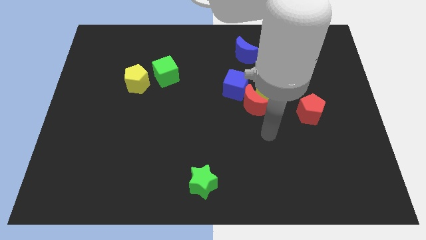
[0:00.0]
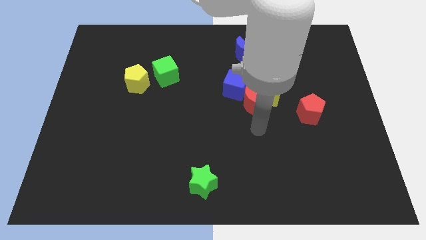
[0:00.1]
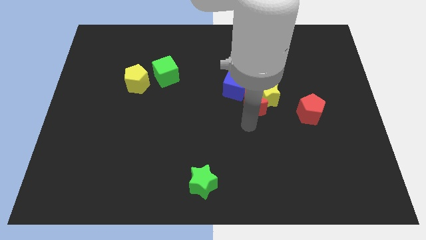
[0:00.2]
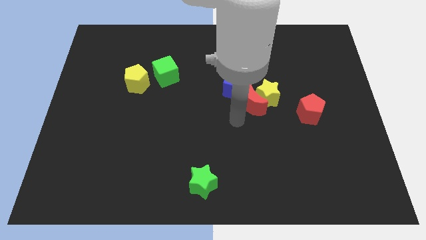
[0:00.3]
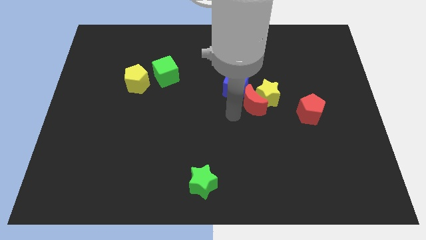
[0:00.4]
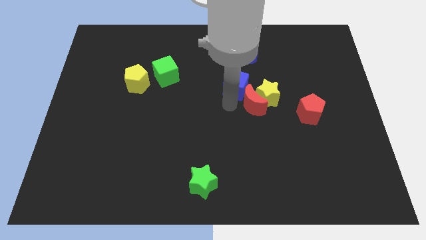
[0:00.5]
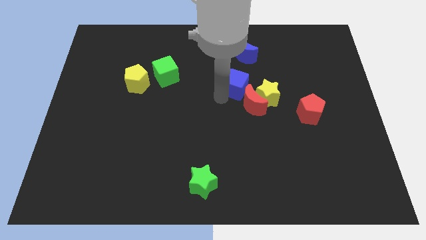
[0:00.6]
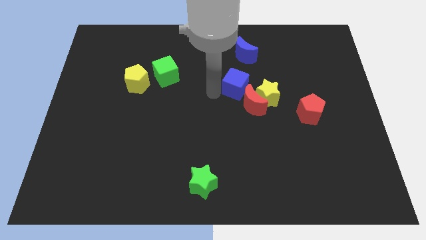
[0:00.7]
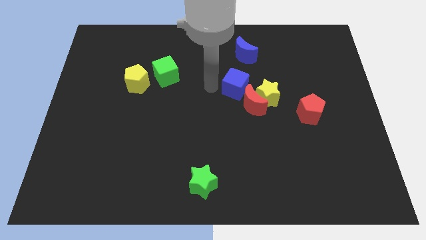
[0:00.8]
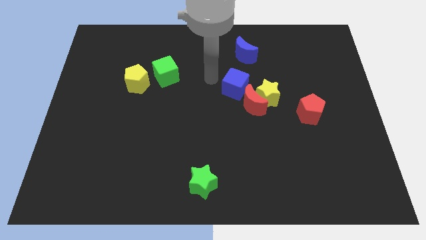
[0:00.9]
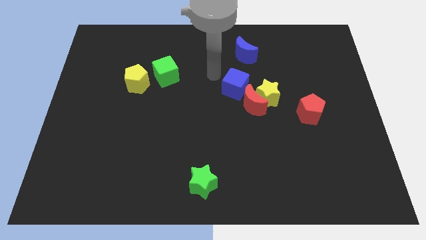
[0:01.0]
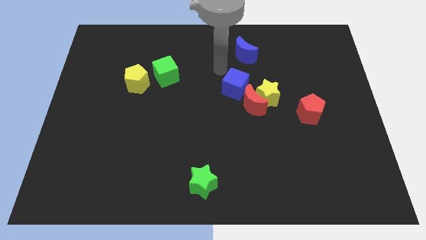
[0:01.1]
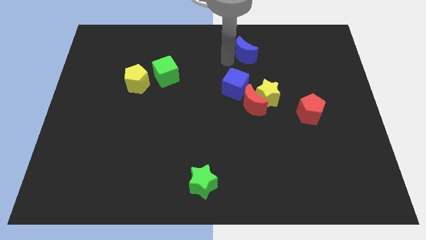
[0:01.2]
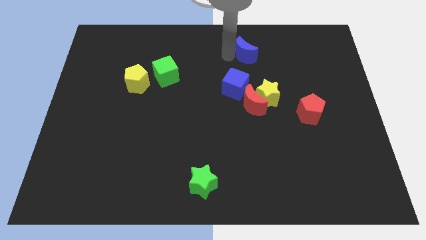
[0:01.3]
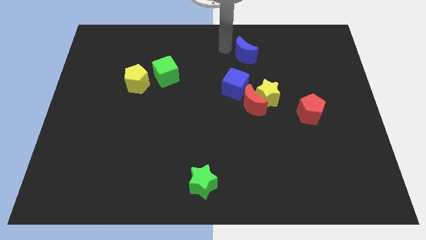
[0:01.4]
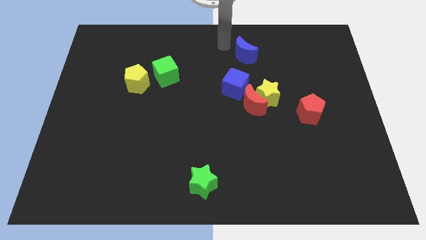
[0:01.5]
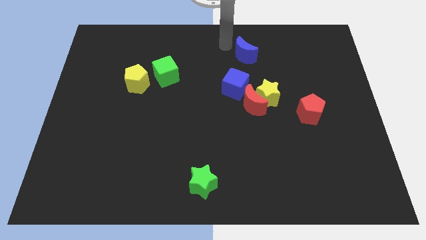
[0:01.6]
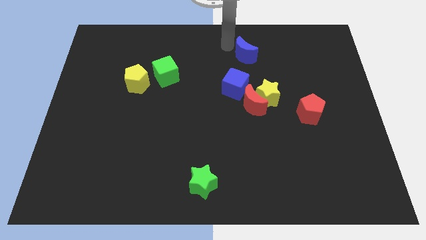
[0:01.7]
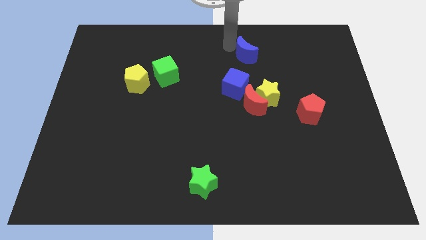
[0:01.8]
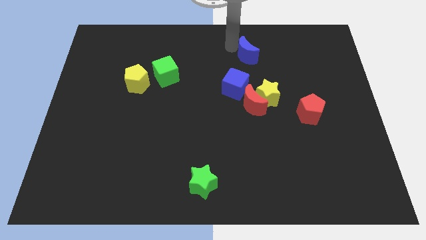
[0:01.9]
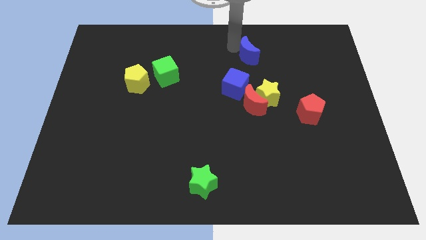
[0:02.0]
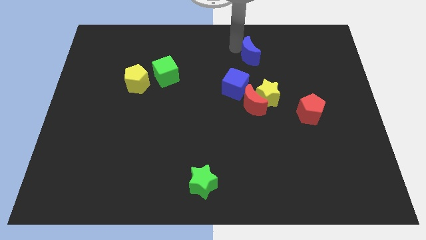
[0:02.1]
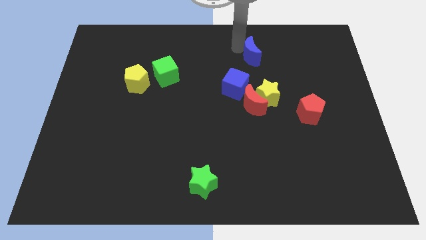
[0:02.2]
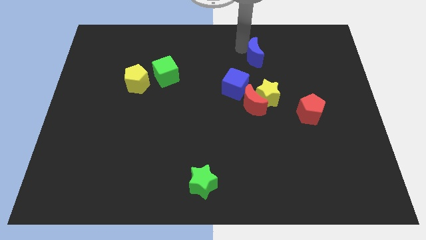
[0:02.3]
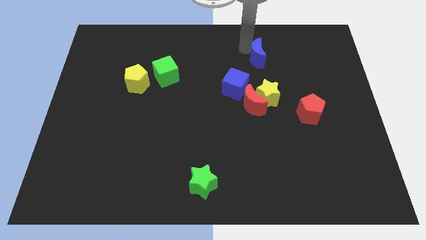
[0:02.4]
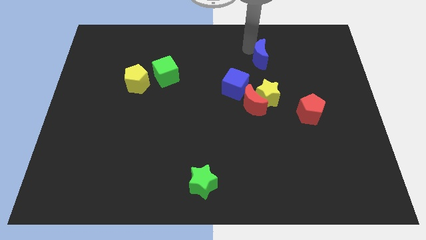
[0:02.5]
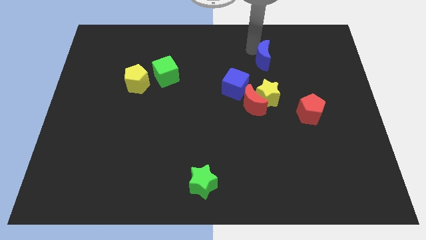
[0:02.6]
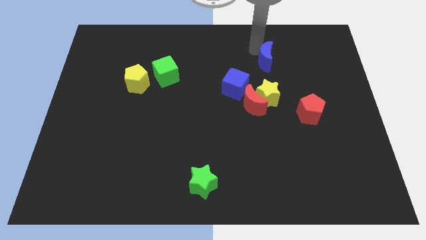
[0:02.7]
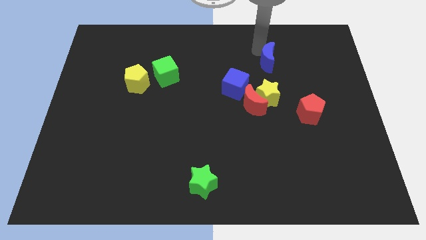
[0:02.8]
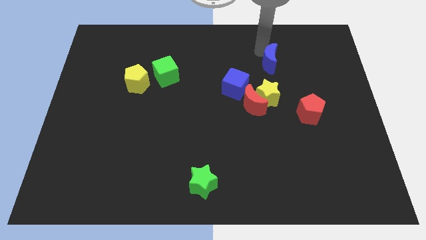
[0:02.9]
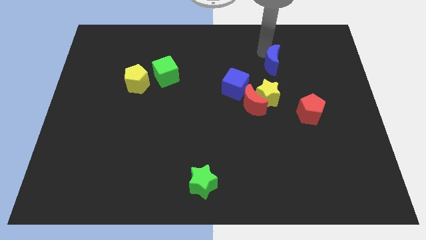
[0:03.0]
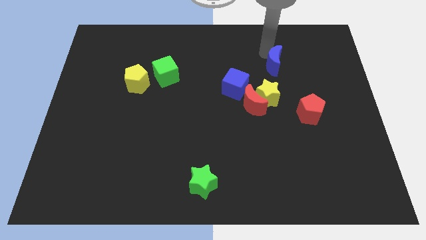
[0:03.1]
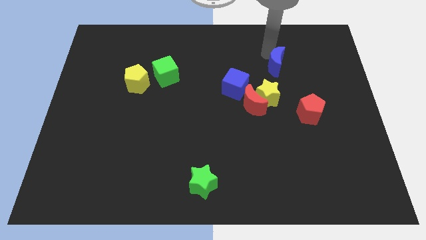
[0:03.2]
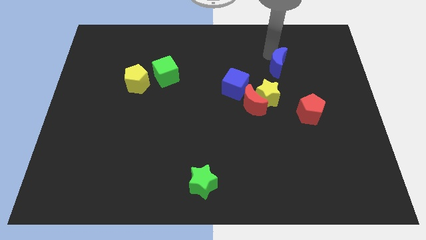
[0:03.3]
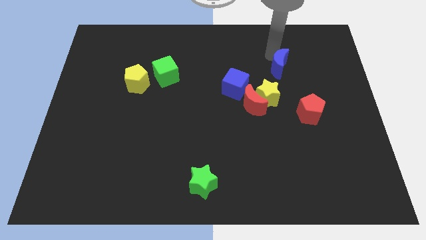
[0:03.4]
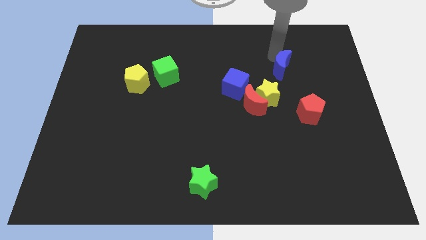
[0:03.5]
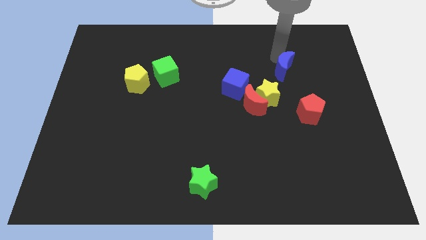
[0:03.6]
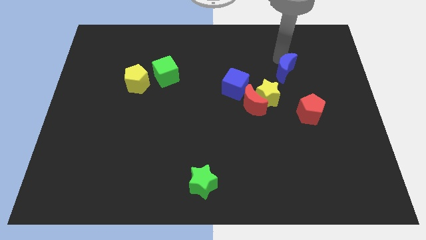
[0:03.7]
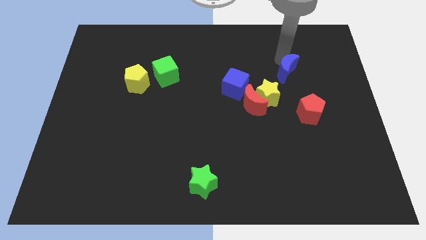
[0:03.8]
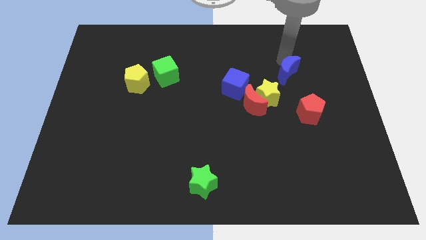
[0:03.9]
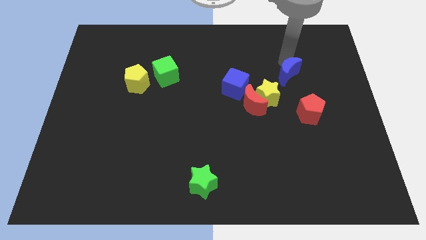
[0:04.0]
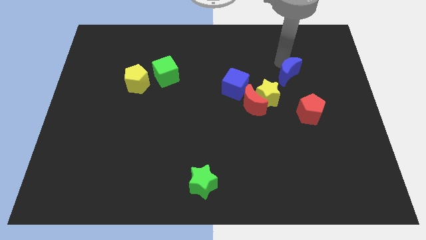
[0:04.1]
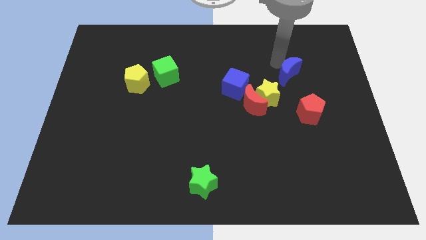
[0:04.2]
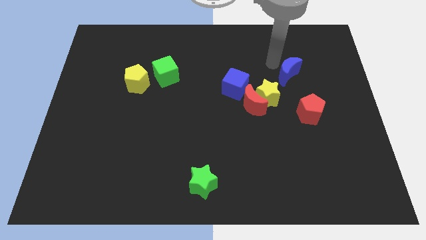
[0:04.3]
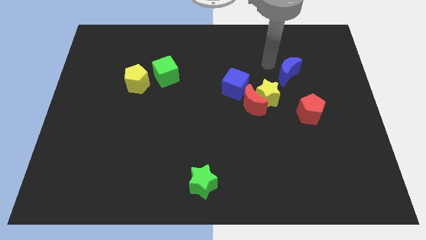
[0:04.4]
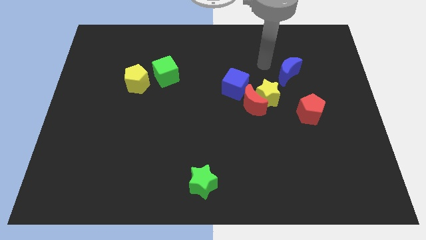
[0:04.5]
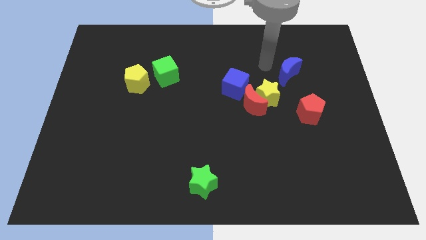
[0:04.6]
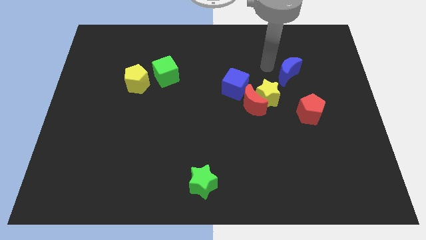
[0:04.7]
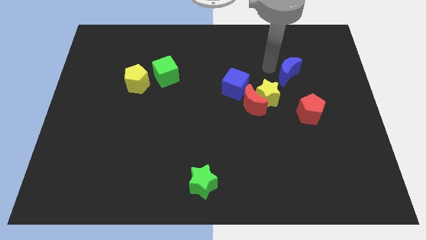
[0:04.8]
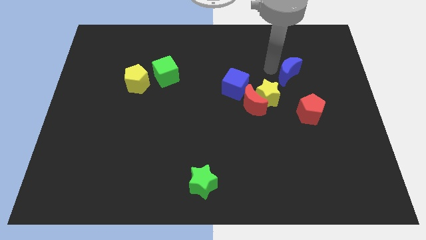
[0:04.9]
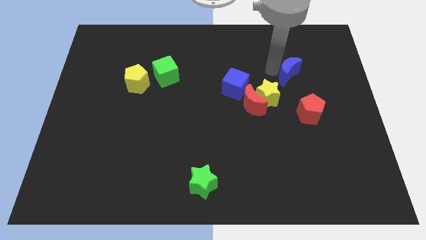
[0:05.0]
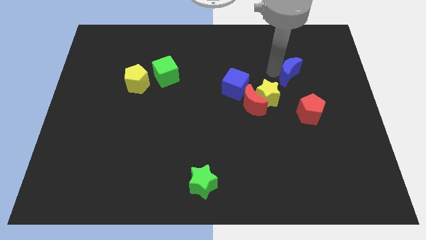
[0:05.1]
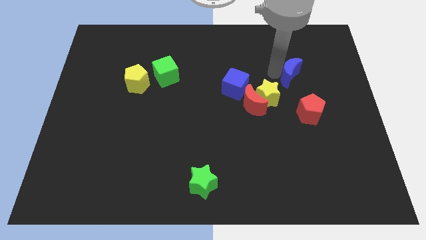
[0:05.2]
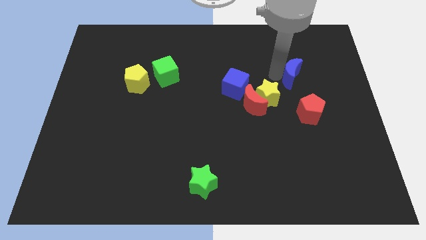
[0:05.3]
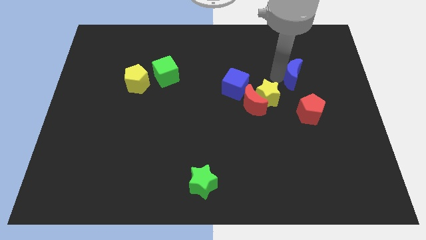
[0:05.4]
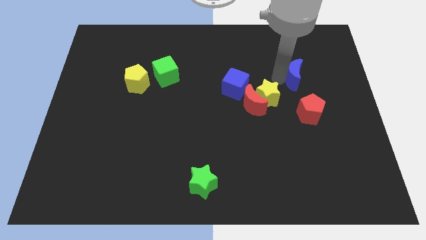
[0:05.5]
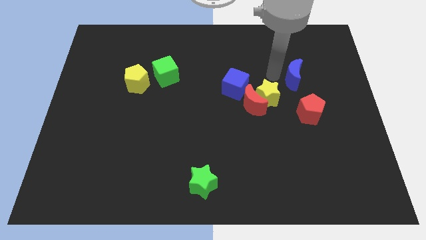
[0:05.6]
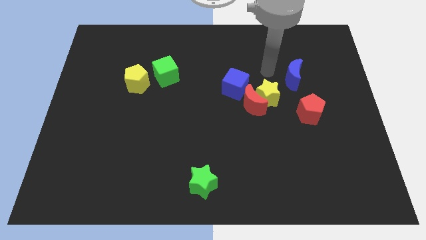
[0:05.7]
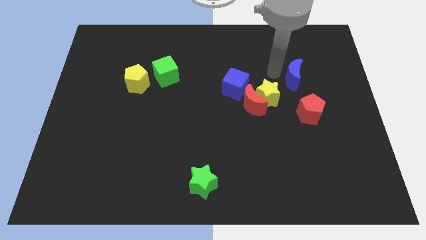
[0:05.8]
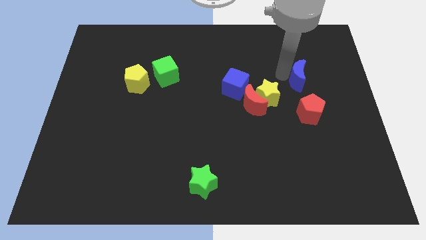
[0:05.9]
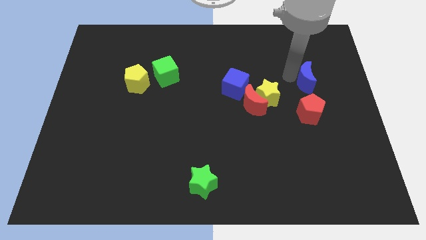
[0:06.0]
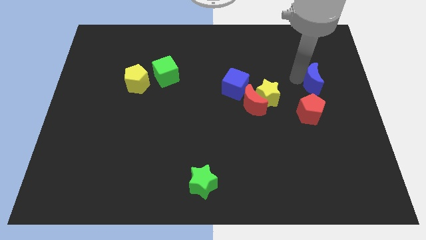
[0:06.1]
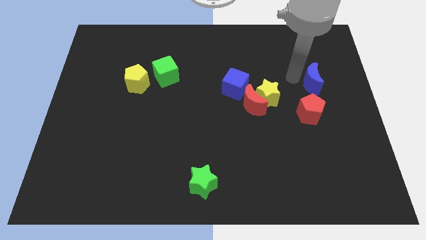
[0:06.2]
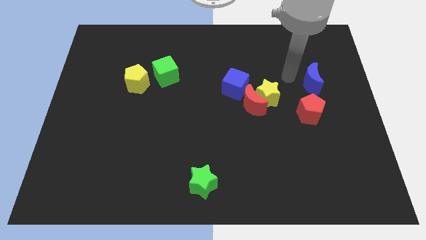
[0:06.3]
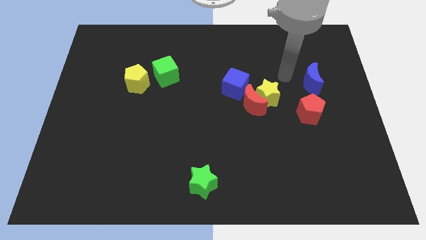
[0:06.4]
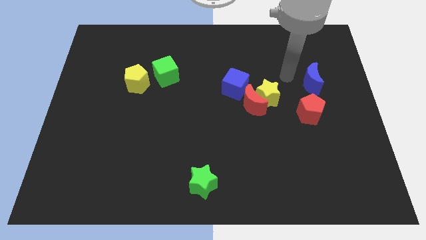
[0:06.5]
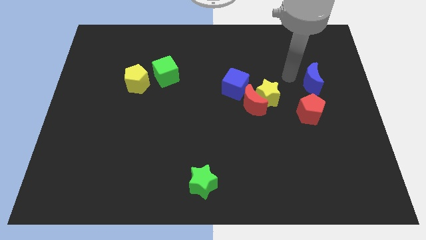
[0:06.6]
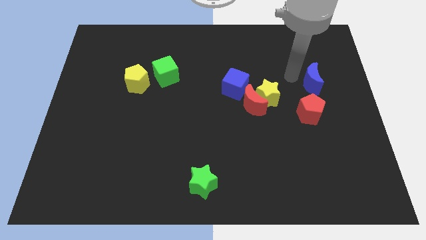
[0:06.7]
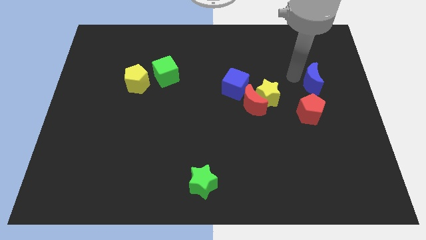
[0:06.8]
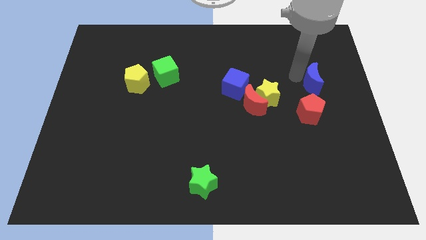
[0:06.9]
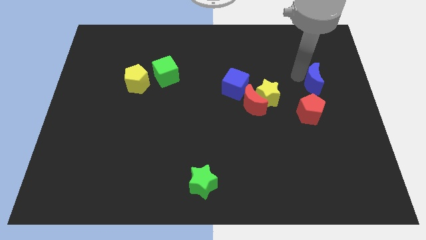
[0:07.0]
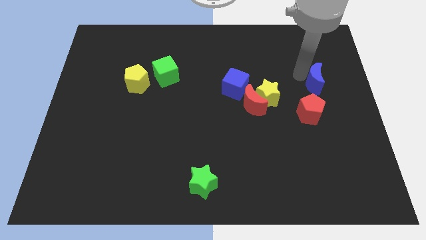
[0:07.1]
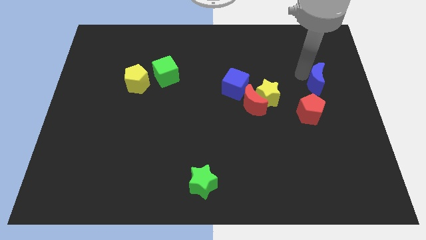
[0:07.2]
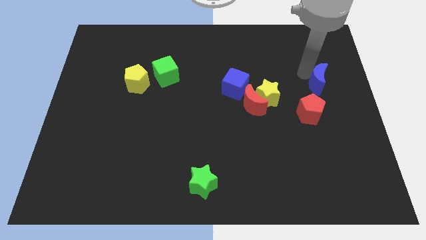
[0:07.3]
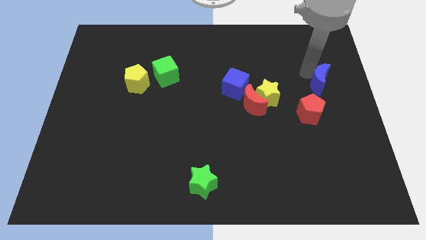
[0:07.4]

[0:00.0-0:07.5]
put the blue moon to the right side

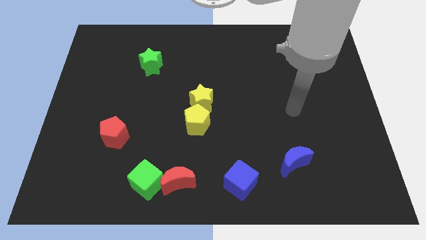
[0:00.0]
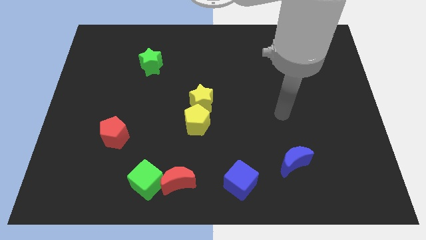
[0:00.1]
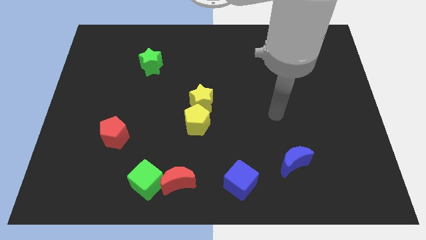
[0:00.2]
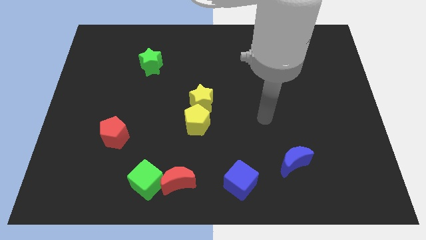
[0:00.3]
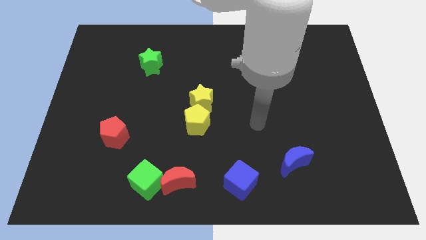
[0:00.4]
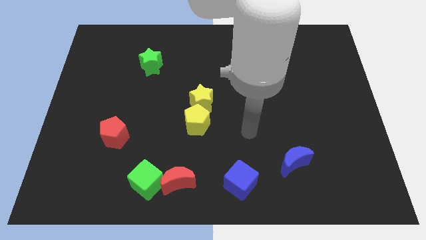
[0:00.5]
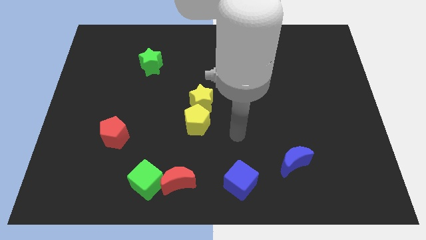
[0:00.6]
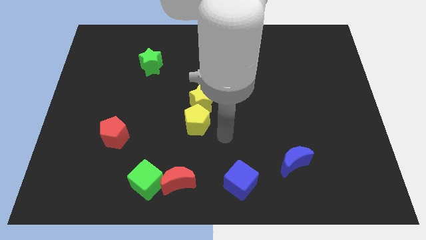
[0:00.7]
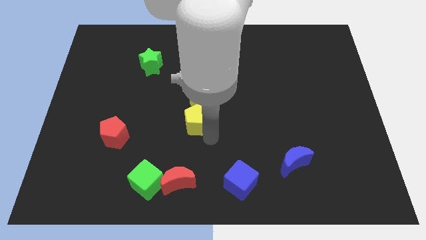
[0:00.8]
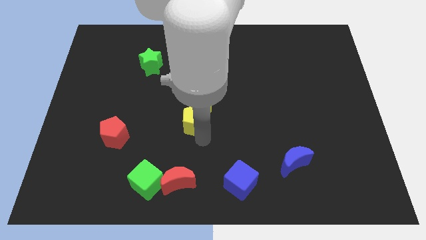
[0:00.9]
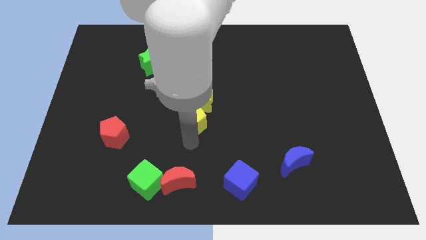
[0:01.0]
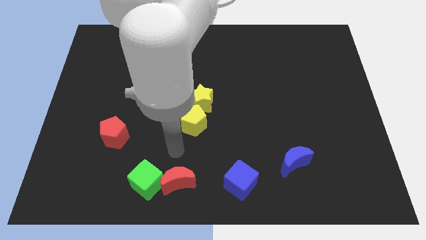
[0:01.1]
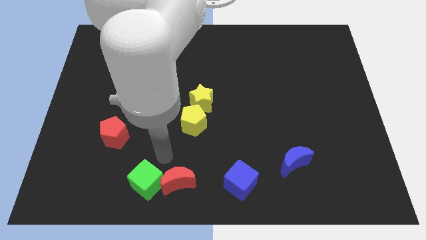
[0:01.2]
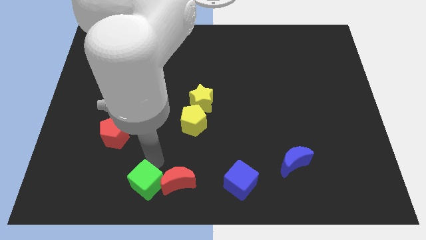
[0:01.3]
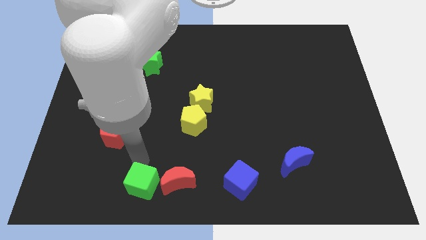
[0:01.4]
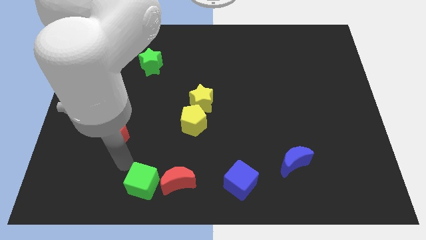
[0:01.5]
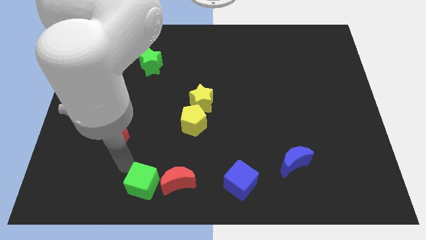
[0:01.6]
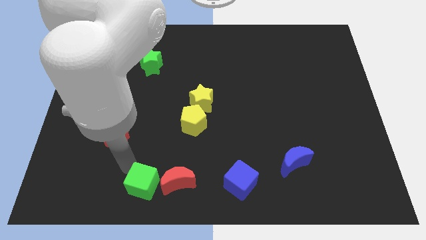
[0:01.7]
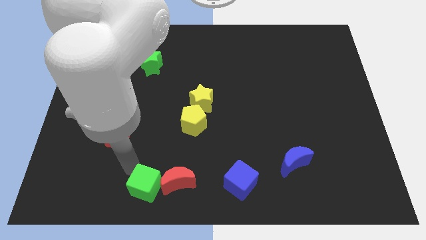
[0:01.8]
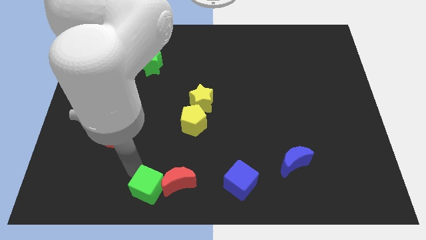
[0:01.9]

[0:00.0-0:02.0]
push the green cube to the bottom
